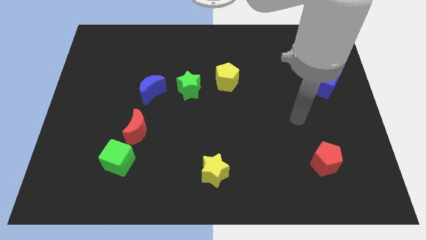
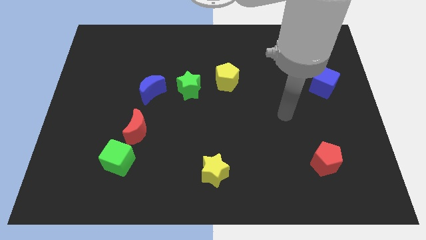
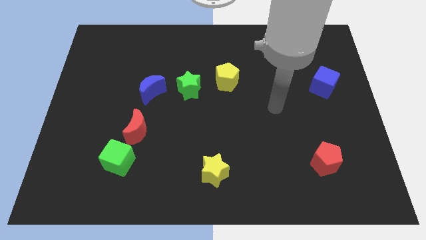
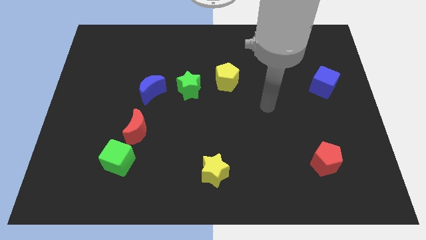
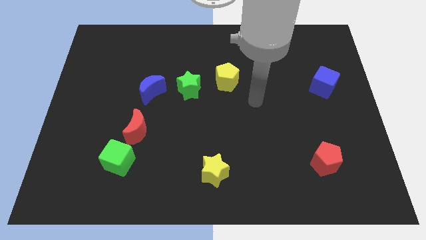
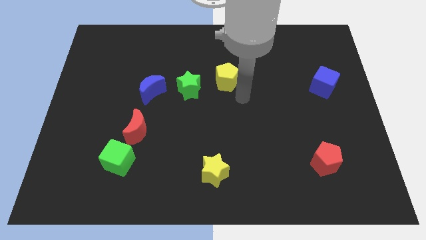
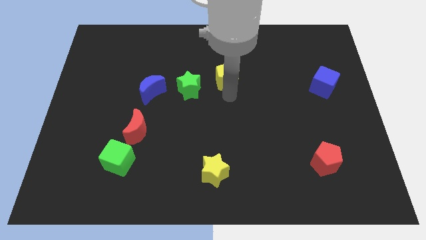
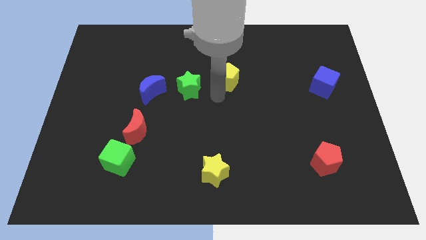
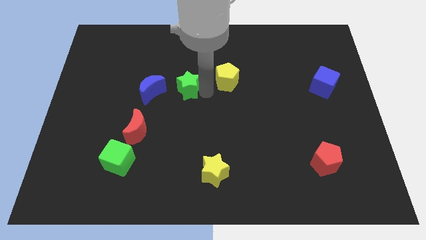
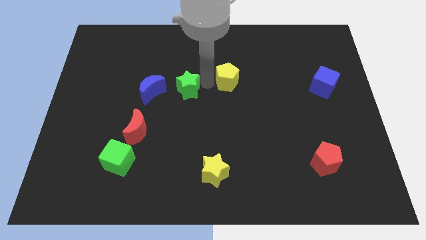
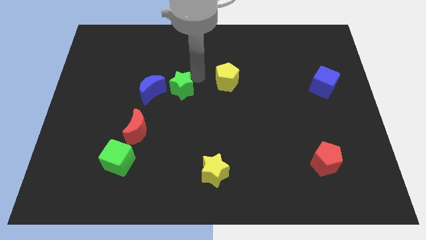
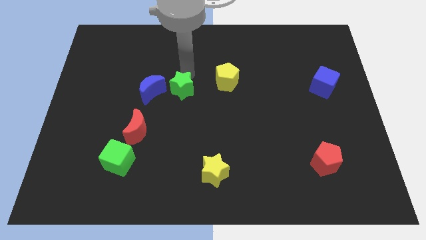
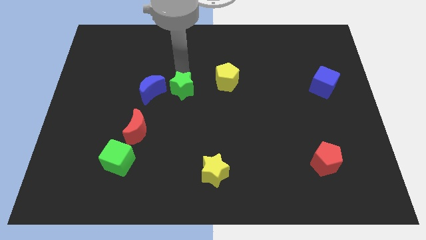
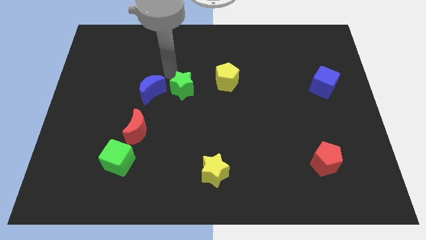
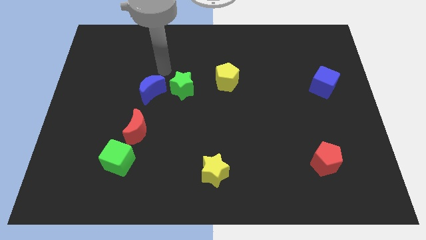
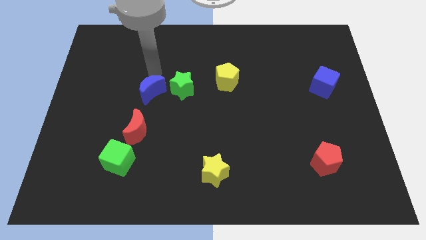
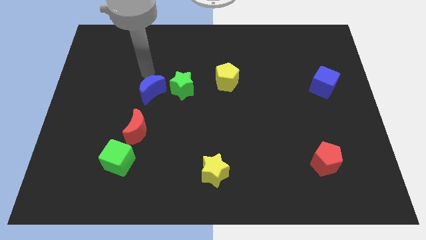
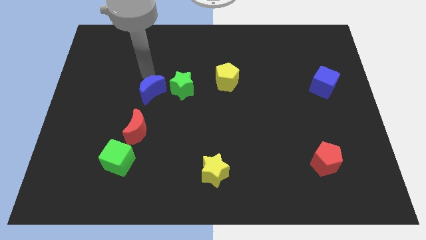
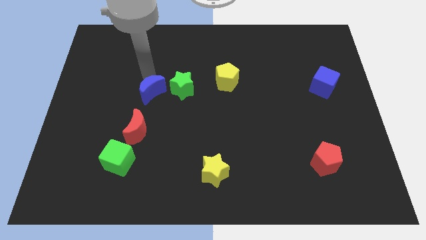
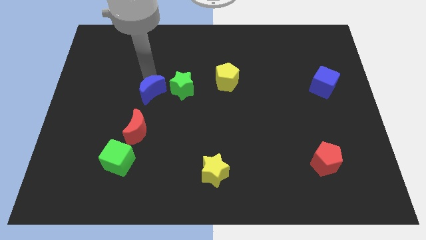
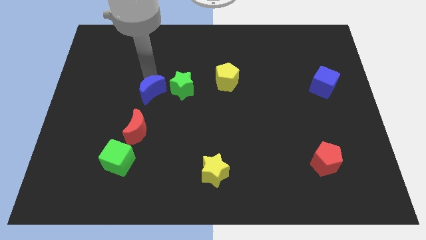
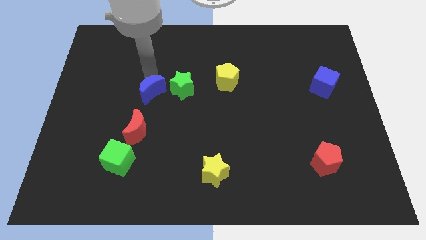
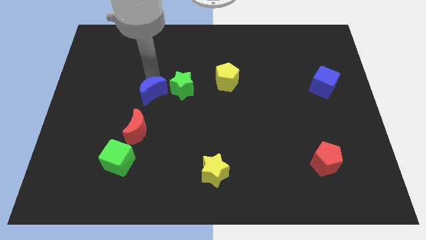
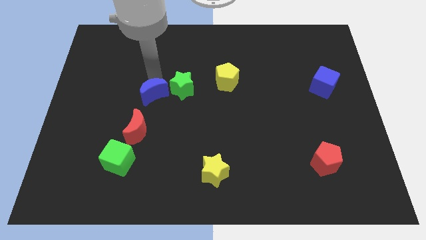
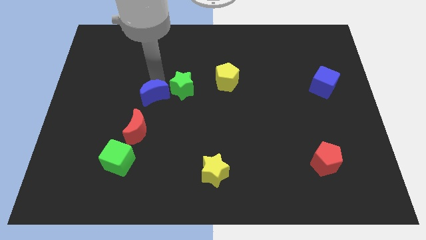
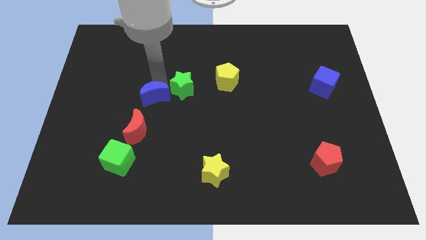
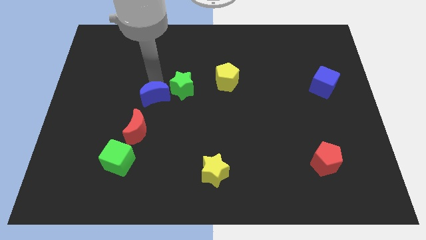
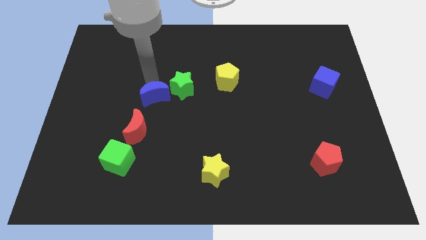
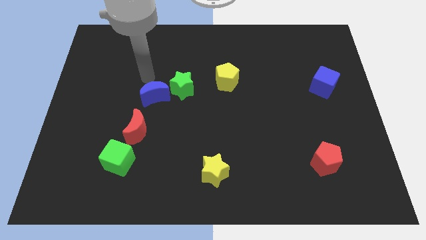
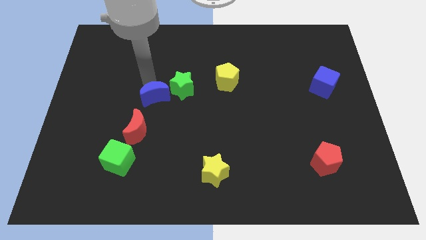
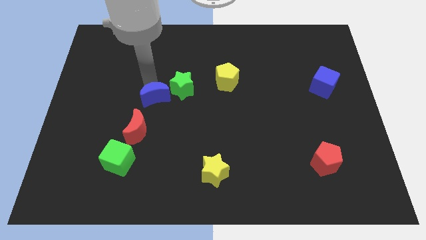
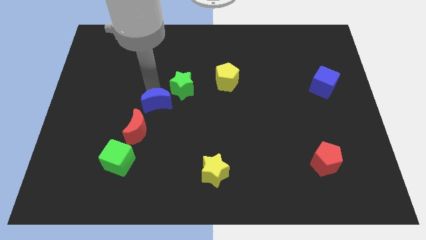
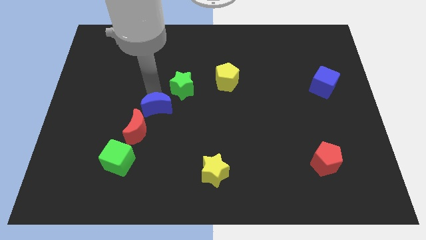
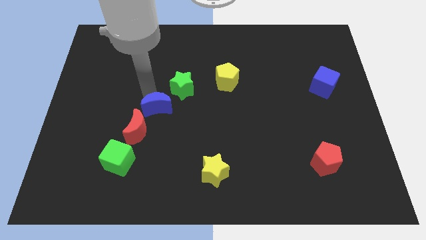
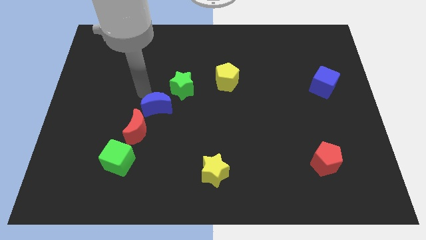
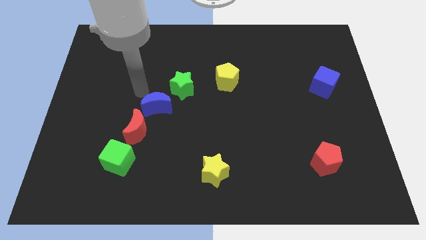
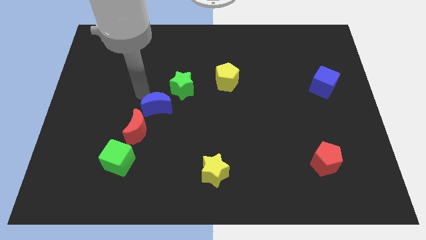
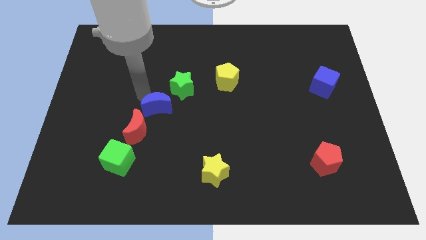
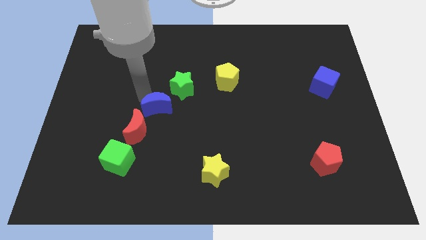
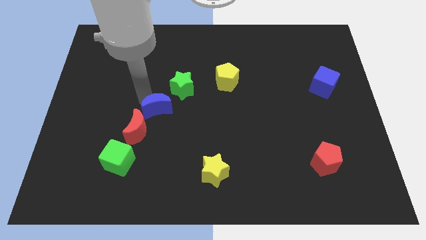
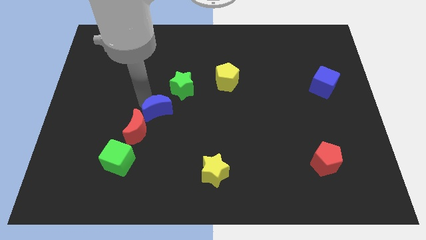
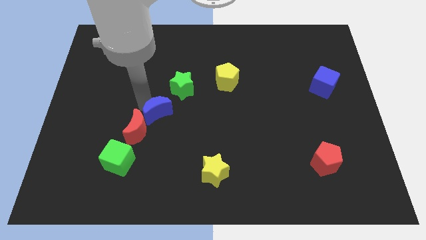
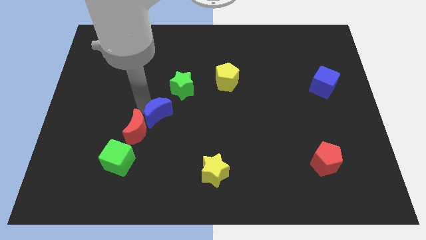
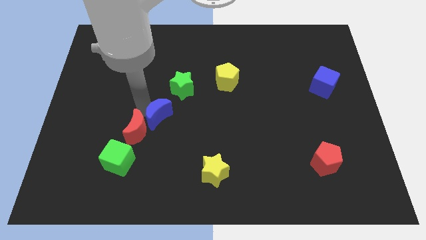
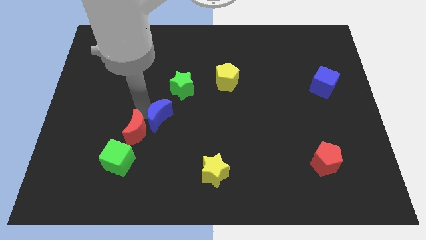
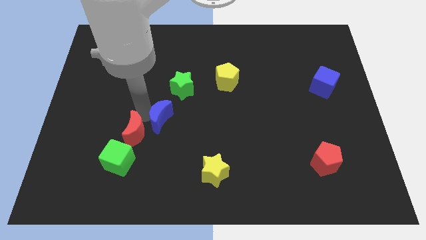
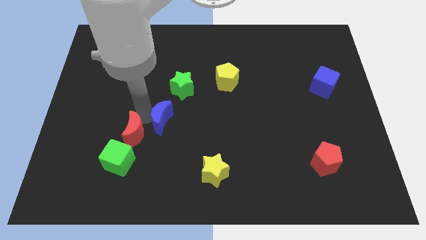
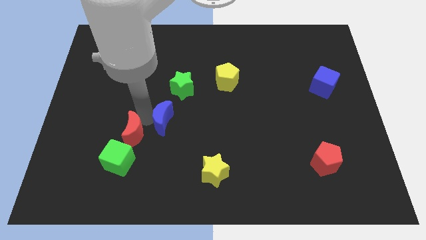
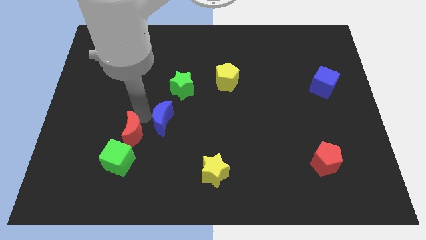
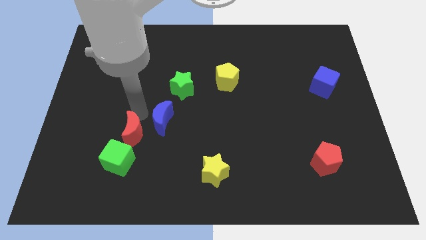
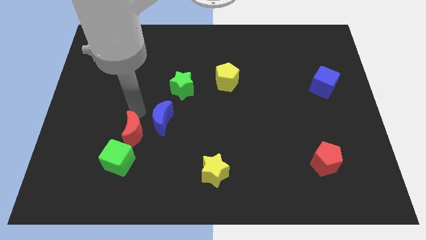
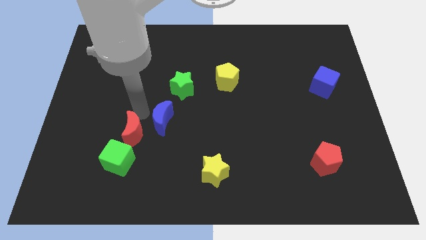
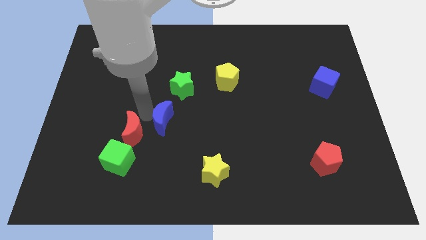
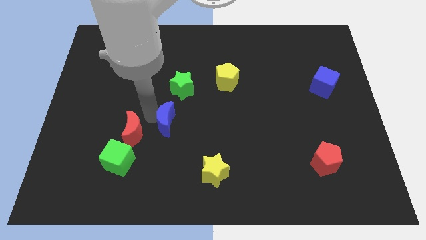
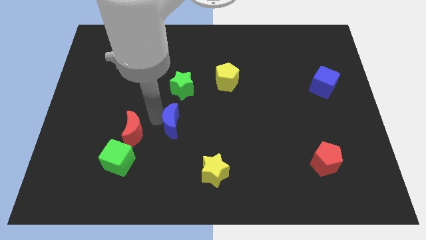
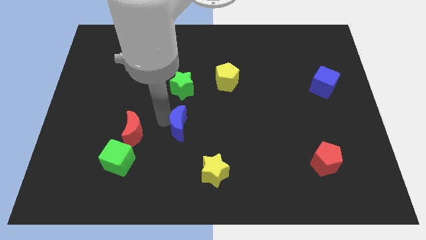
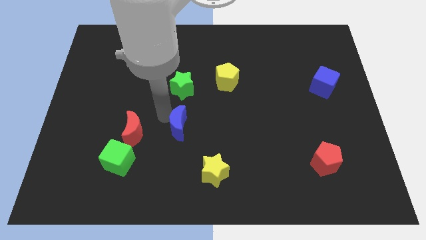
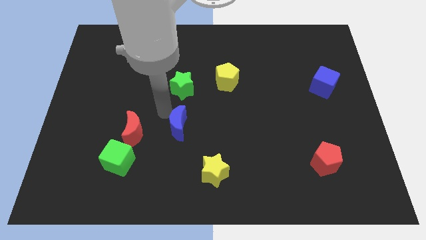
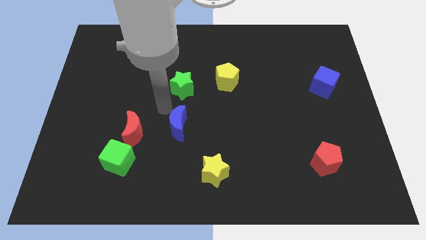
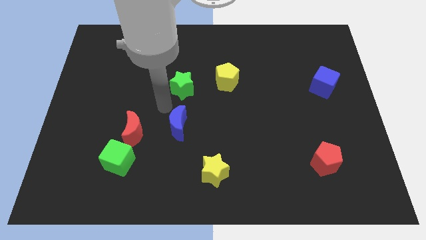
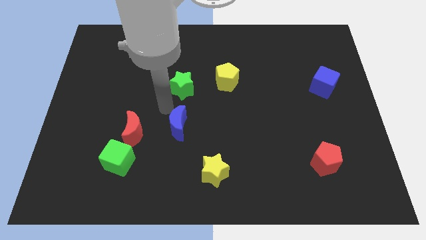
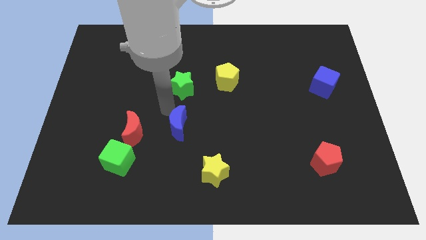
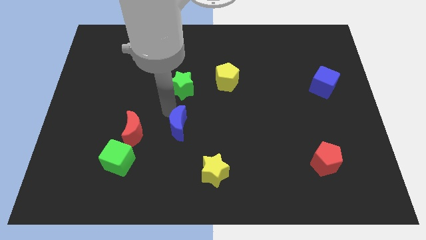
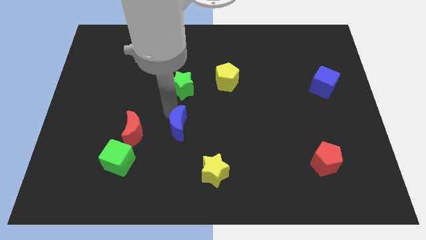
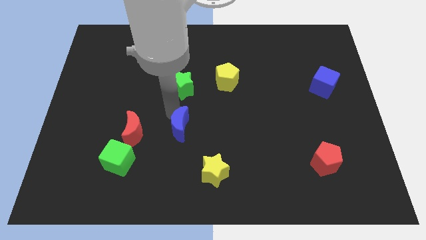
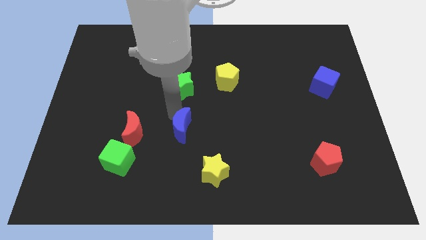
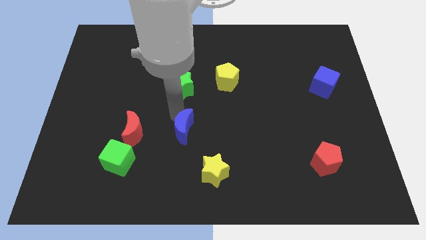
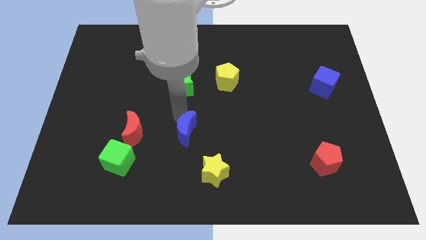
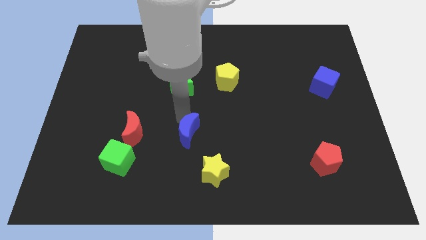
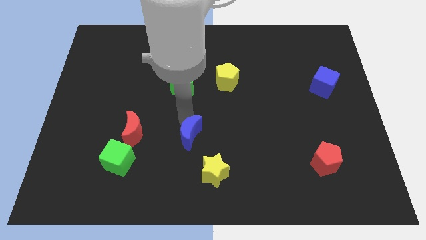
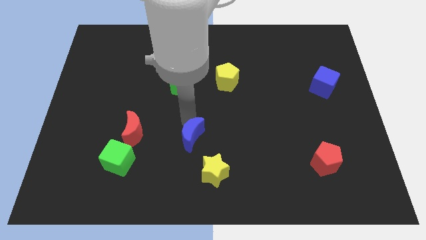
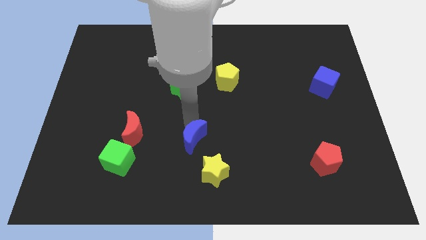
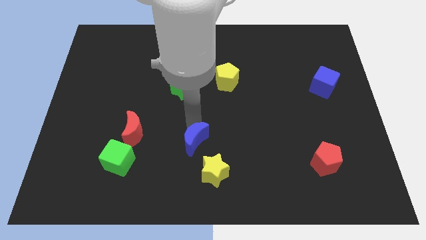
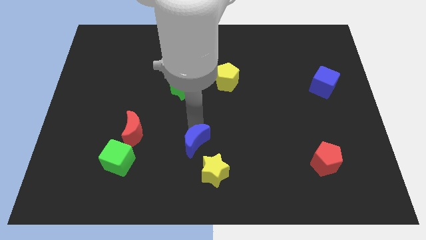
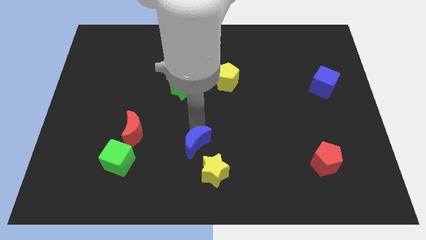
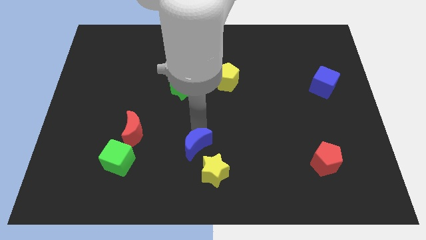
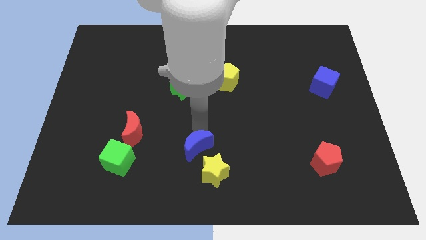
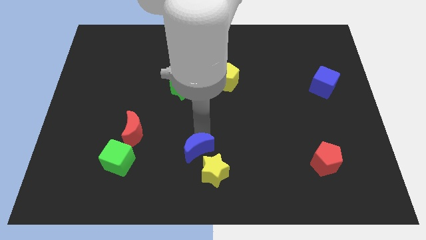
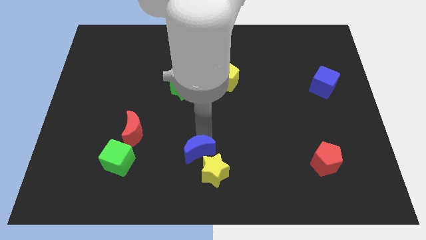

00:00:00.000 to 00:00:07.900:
push the blue moon towards the yellow star
